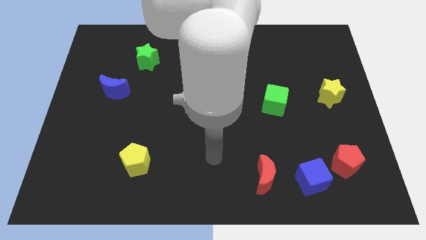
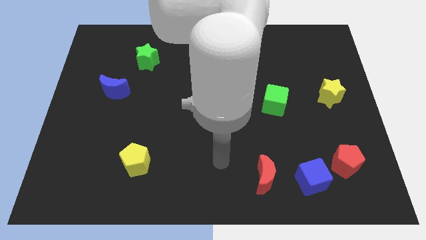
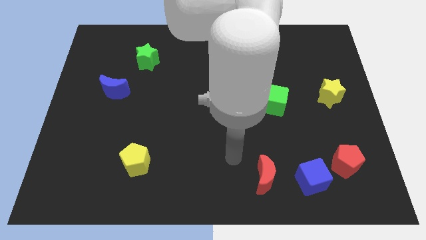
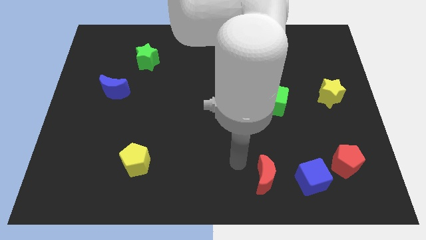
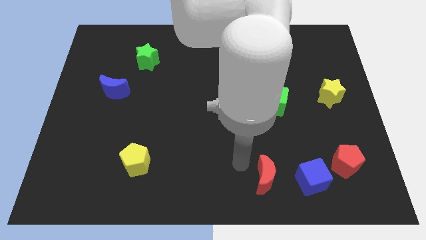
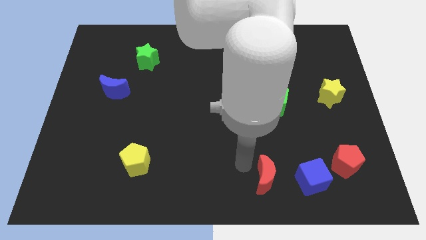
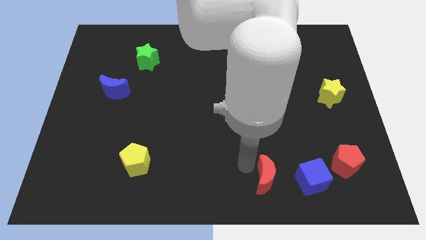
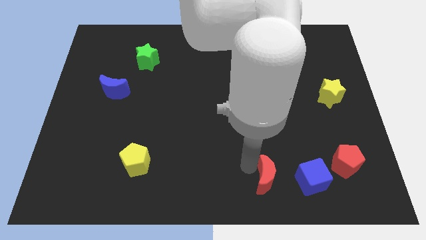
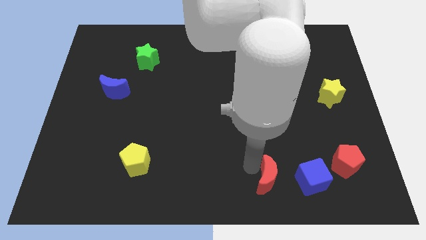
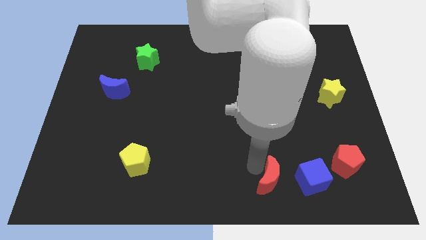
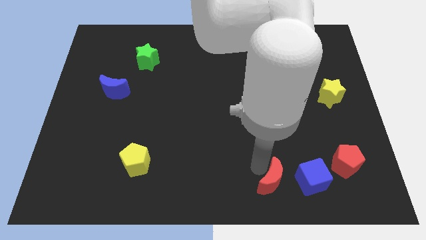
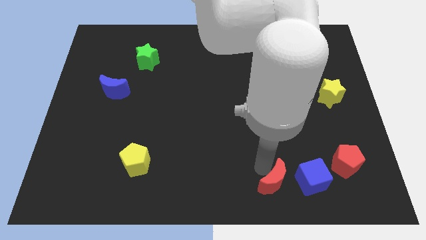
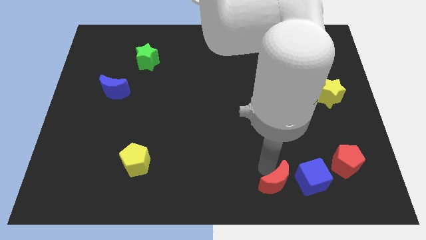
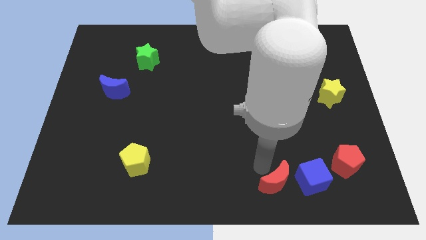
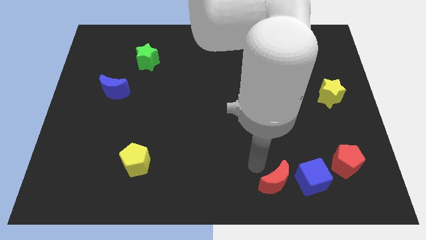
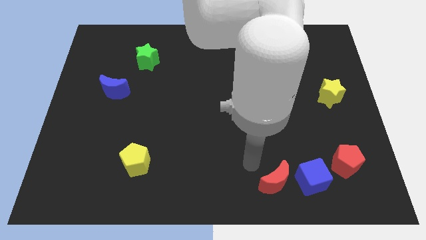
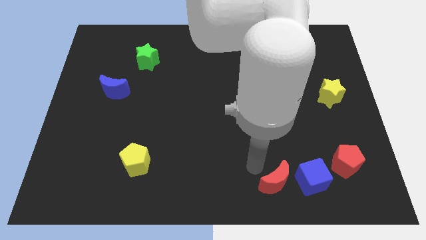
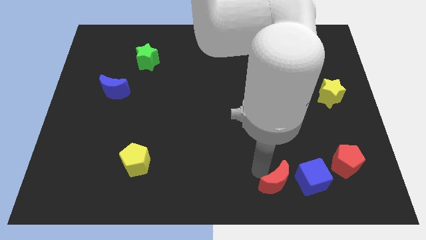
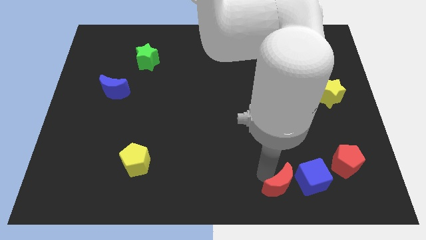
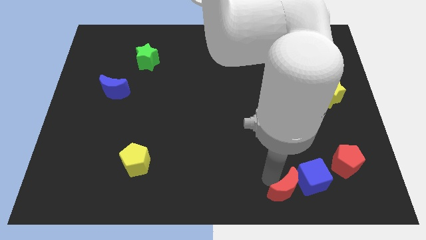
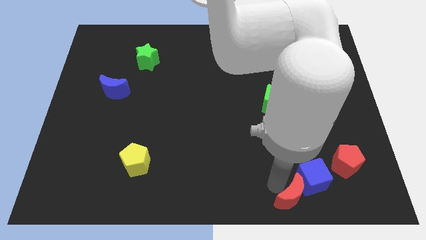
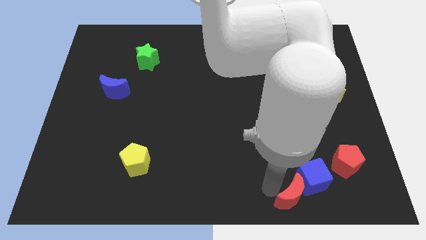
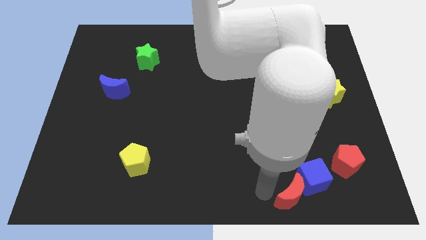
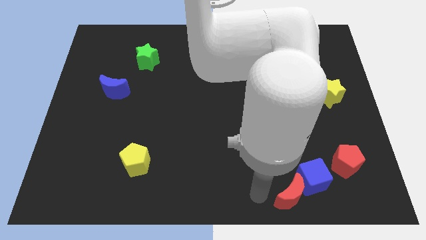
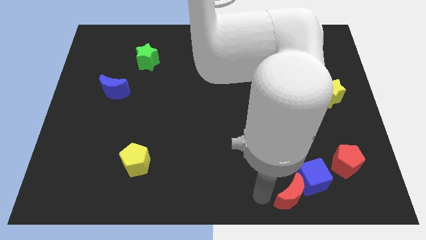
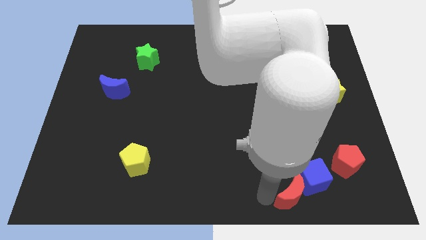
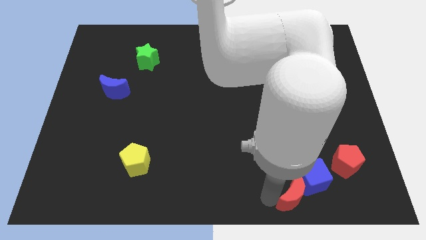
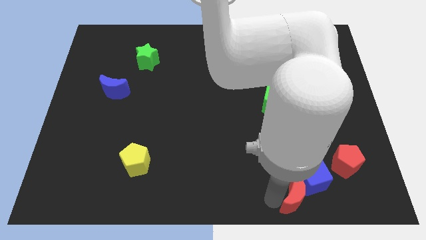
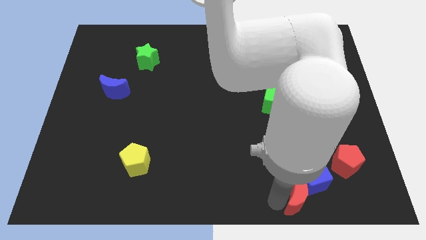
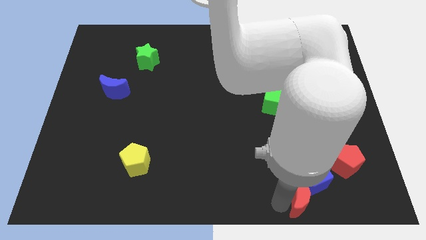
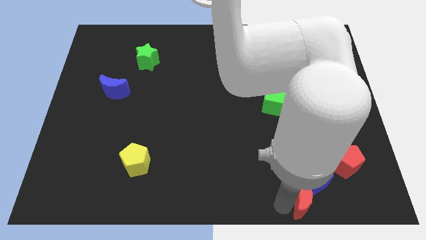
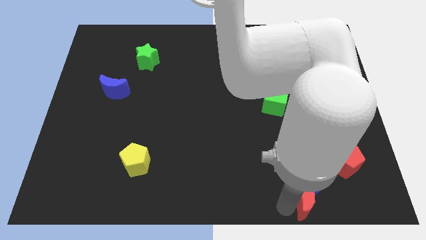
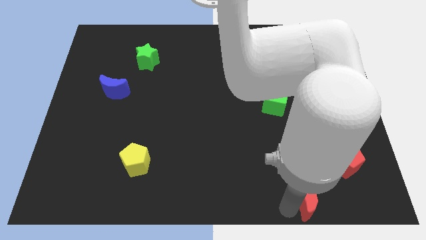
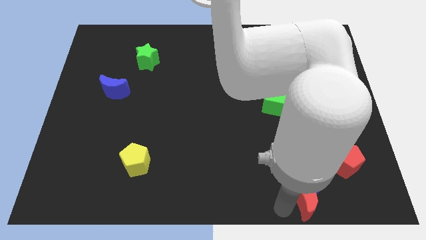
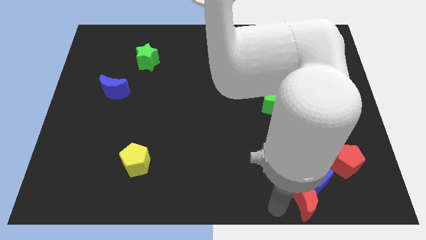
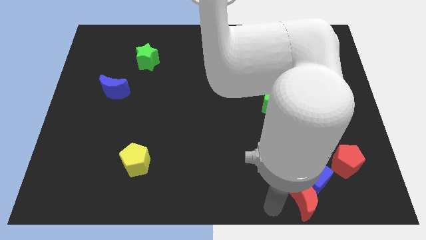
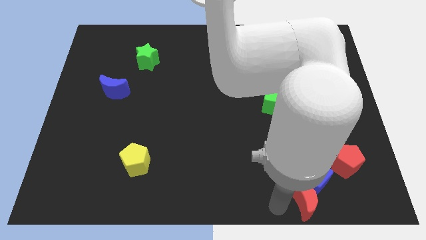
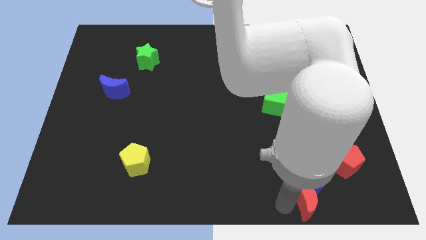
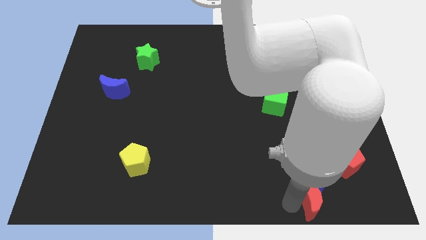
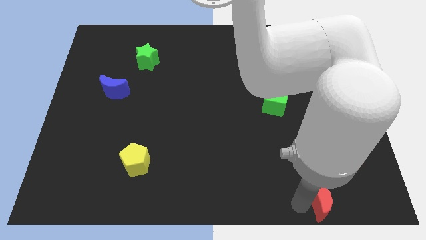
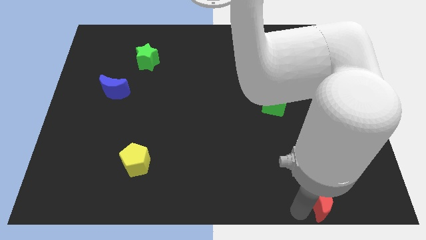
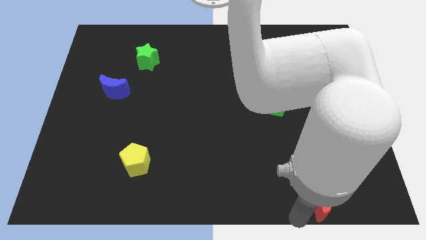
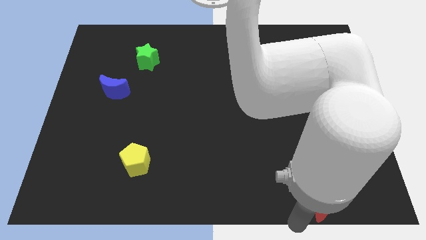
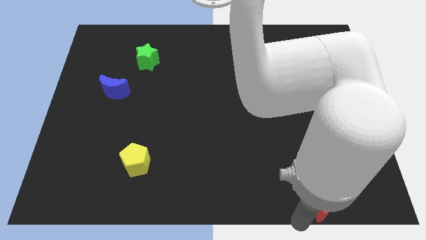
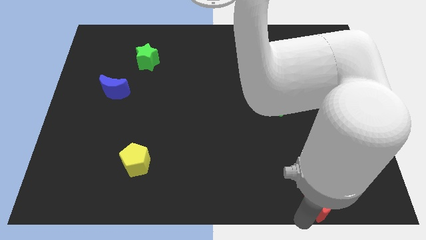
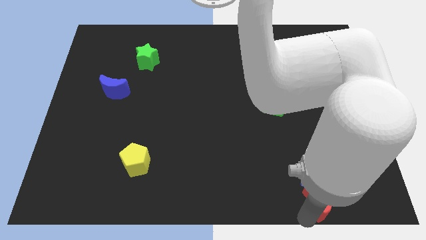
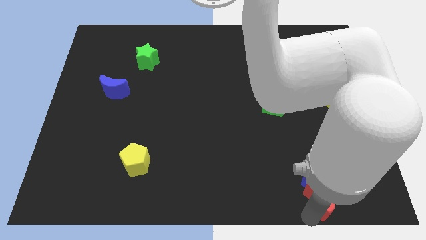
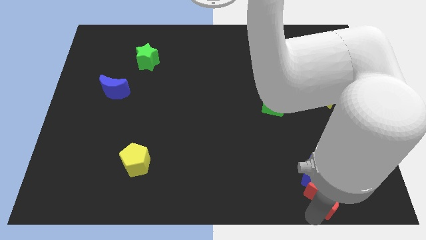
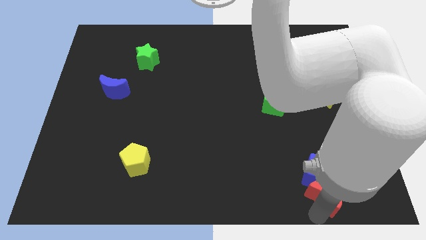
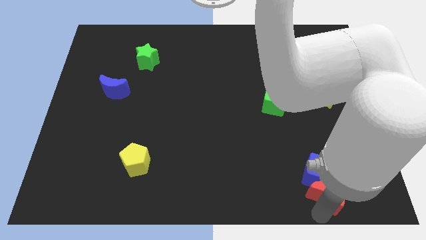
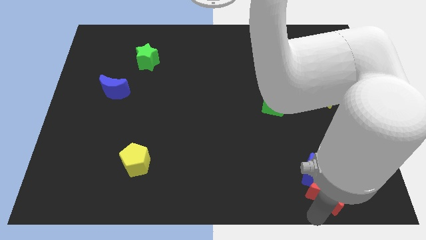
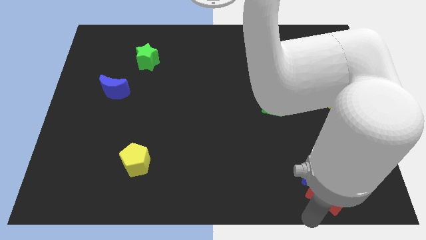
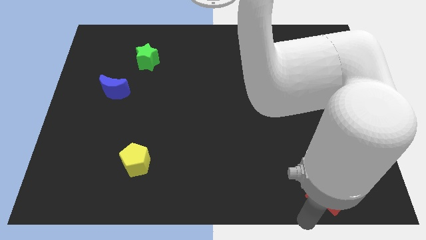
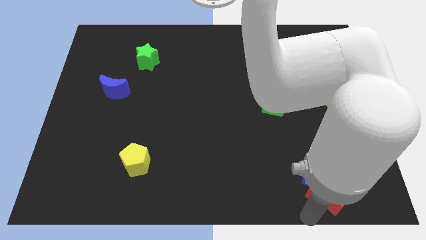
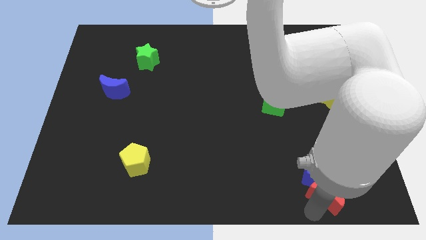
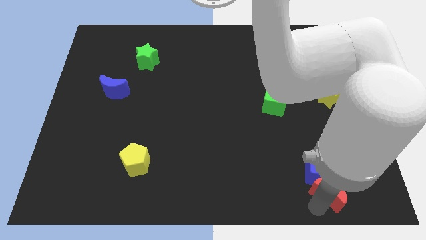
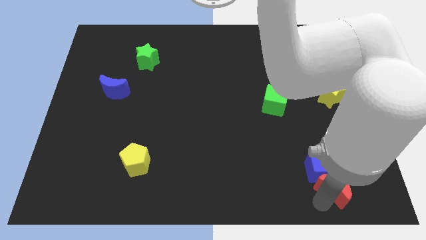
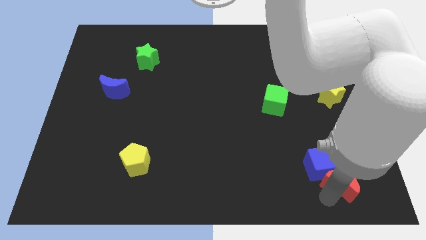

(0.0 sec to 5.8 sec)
slide the red moon close to the red pentagon
